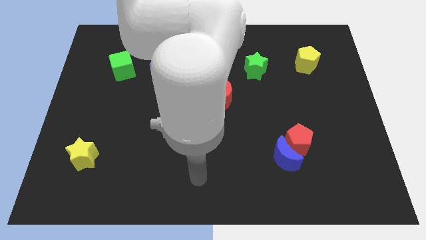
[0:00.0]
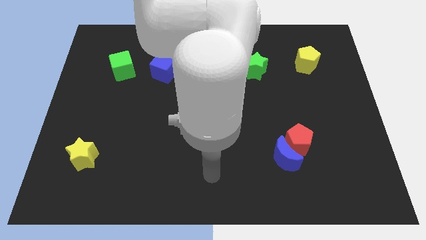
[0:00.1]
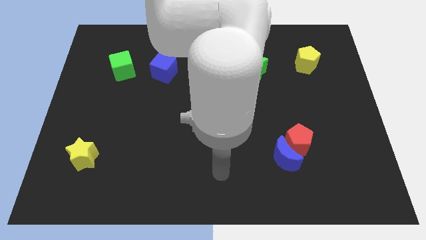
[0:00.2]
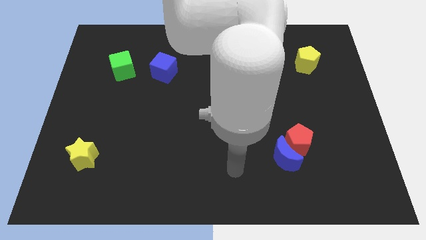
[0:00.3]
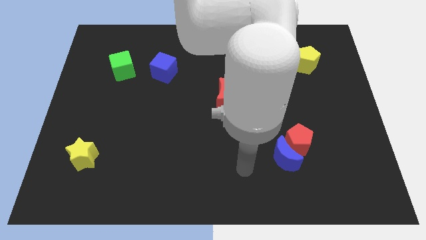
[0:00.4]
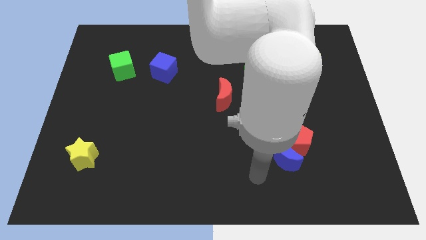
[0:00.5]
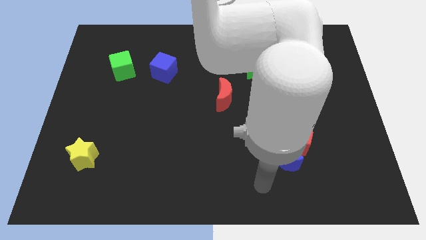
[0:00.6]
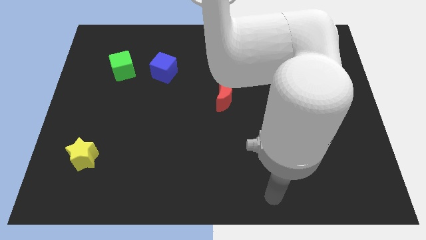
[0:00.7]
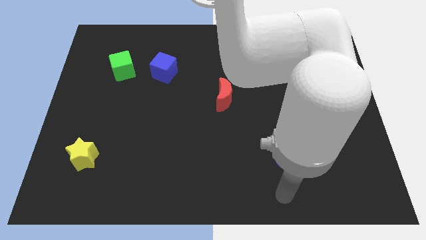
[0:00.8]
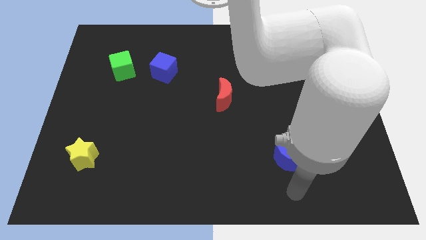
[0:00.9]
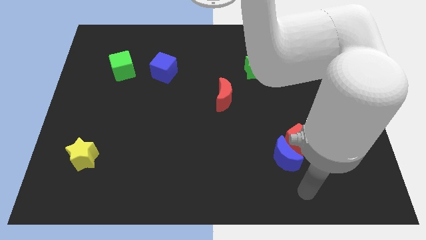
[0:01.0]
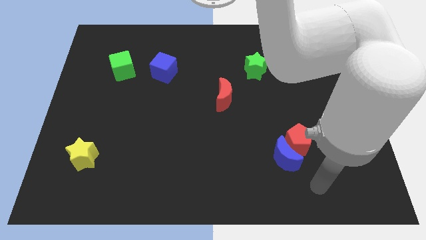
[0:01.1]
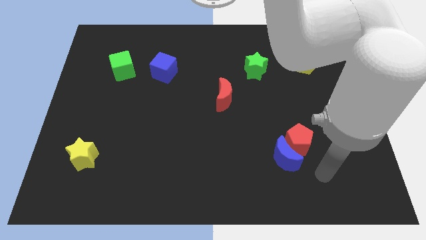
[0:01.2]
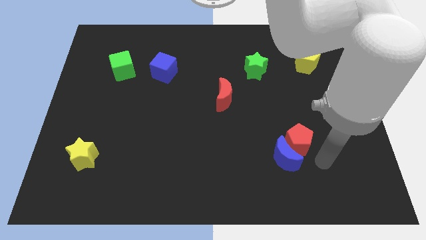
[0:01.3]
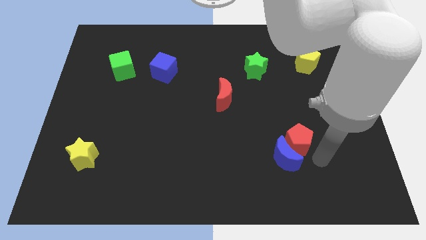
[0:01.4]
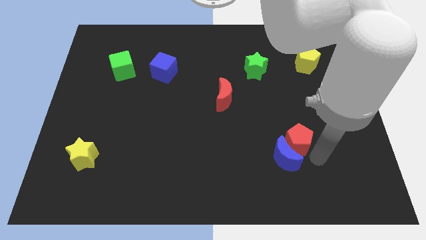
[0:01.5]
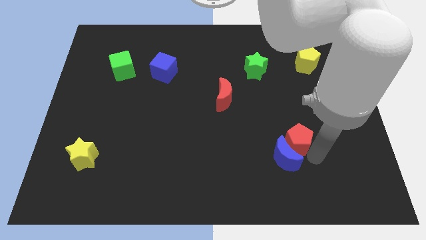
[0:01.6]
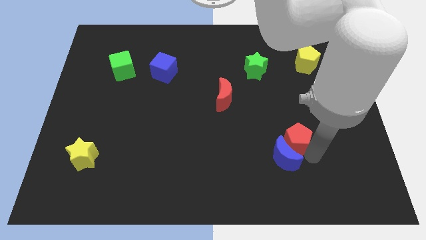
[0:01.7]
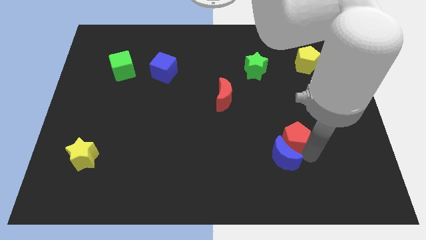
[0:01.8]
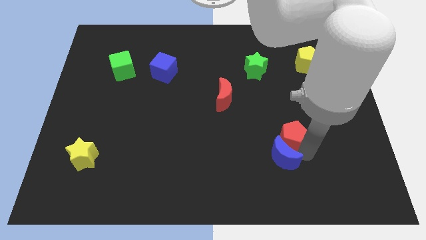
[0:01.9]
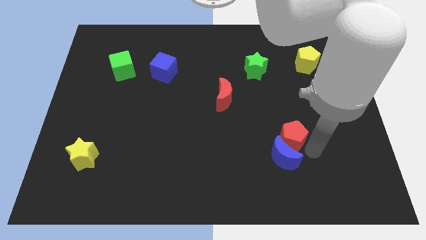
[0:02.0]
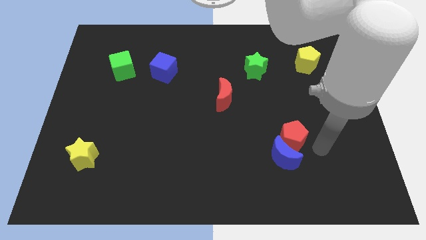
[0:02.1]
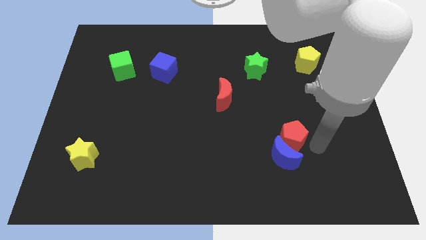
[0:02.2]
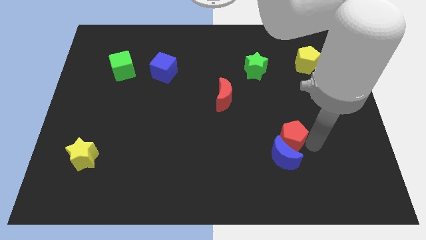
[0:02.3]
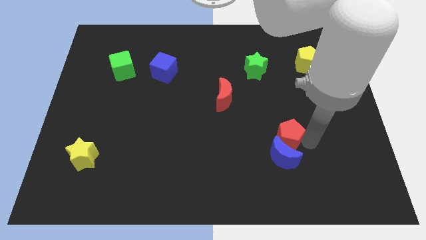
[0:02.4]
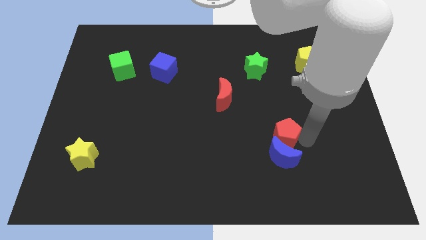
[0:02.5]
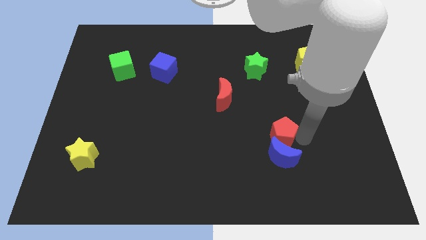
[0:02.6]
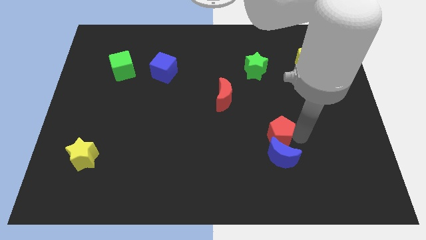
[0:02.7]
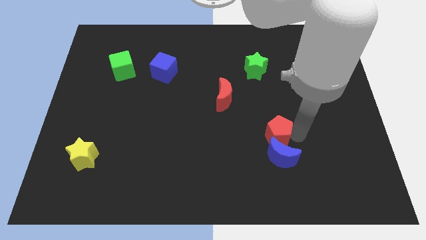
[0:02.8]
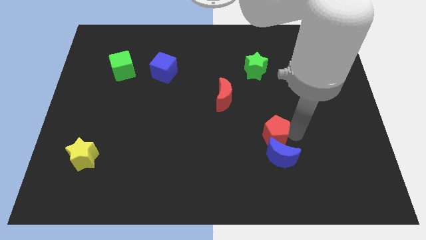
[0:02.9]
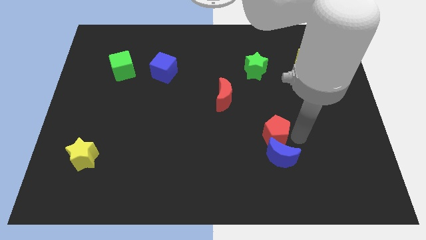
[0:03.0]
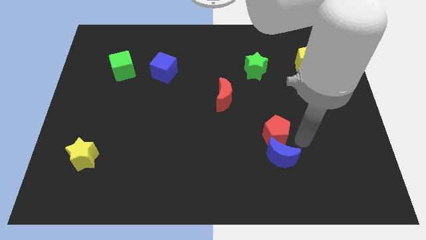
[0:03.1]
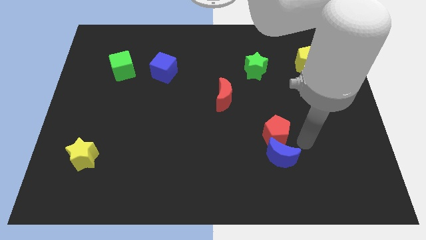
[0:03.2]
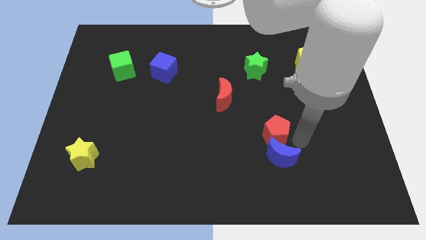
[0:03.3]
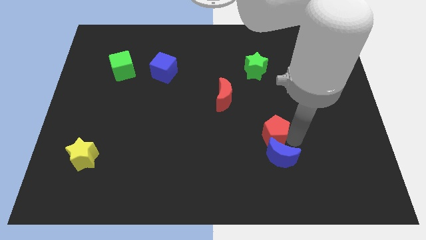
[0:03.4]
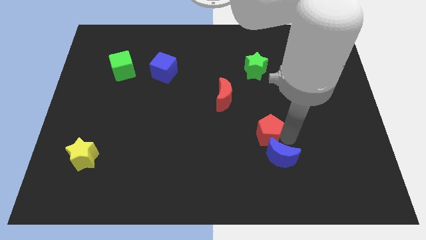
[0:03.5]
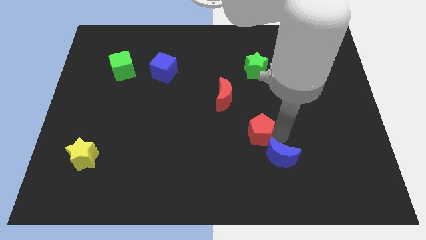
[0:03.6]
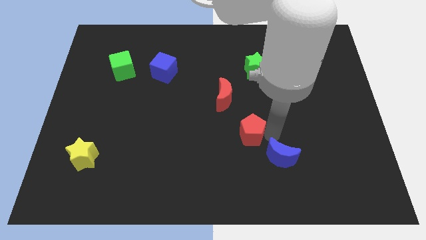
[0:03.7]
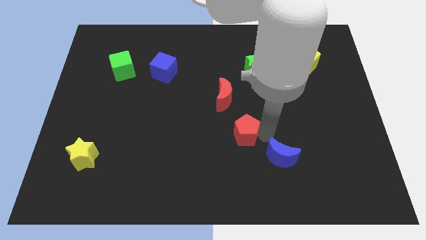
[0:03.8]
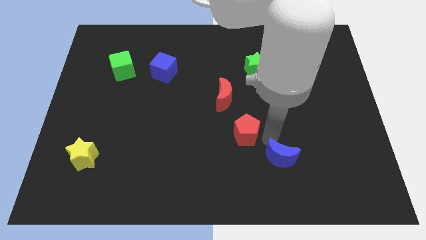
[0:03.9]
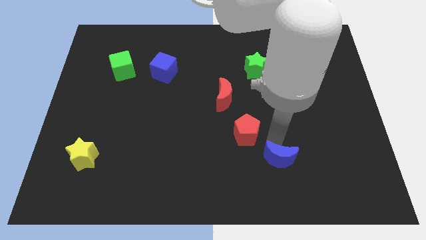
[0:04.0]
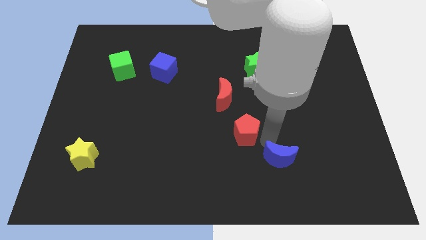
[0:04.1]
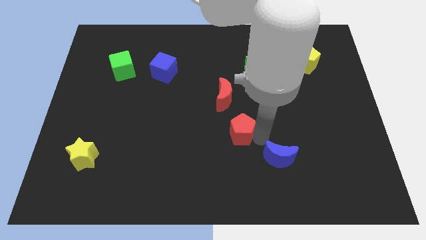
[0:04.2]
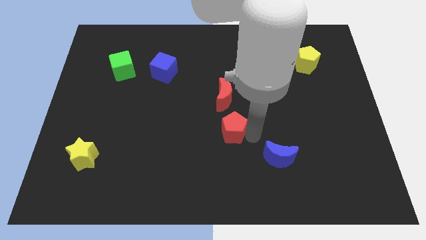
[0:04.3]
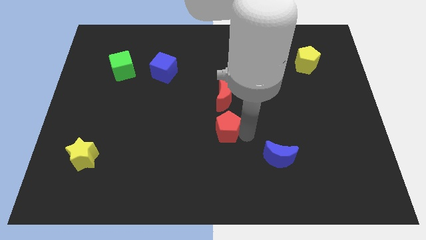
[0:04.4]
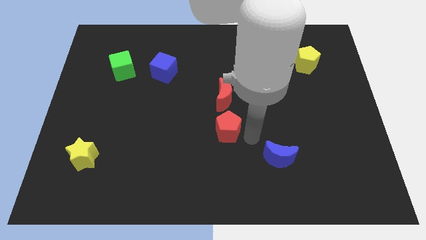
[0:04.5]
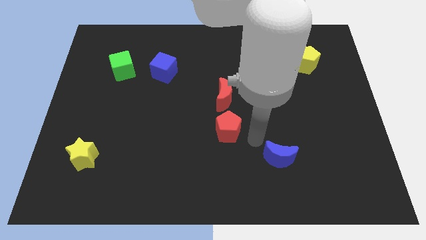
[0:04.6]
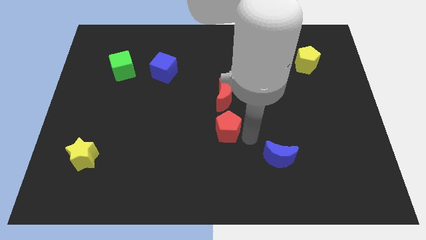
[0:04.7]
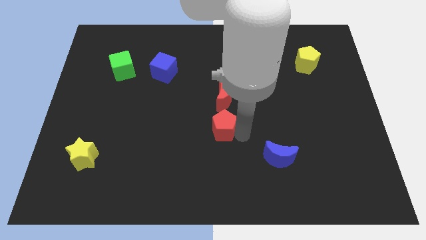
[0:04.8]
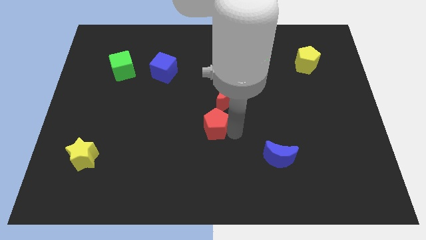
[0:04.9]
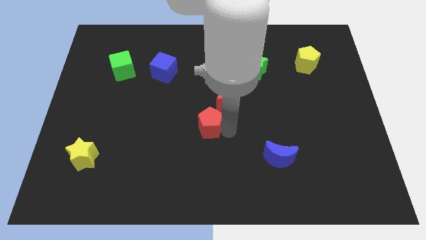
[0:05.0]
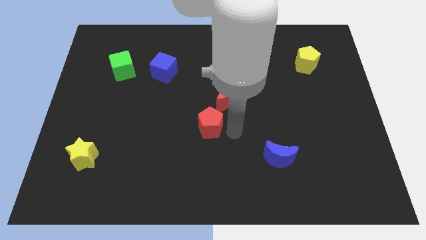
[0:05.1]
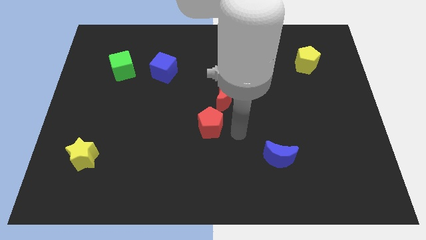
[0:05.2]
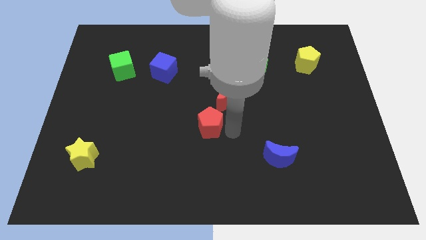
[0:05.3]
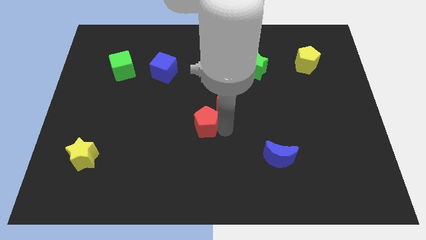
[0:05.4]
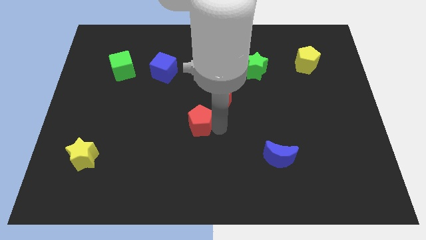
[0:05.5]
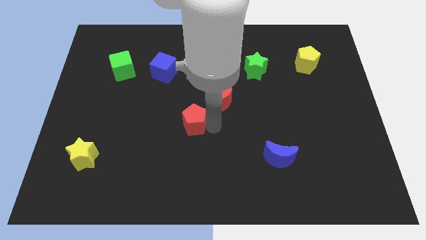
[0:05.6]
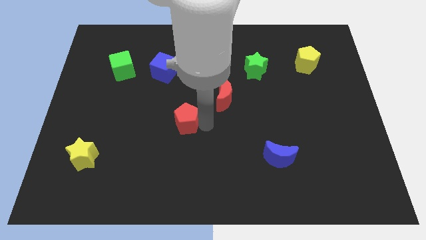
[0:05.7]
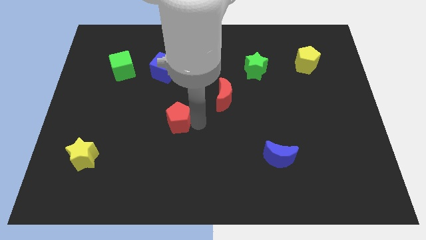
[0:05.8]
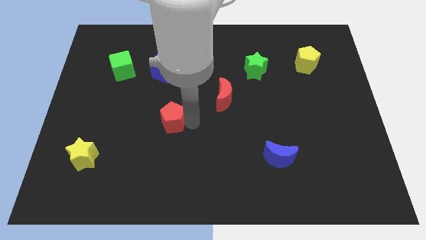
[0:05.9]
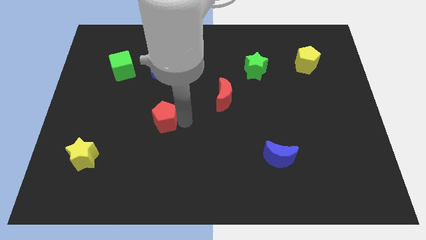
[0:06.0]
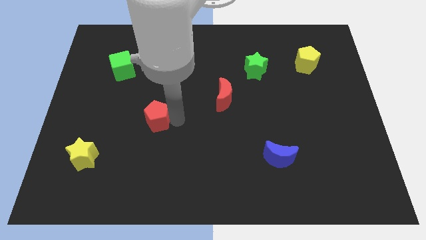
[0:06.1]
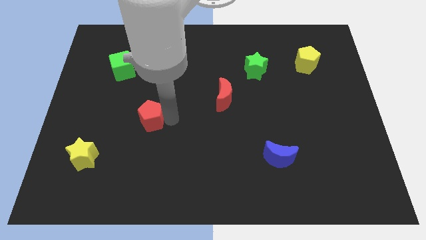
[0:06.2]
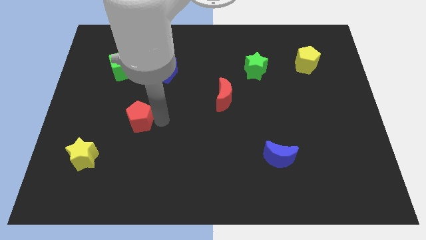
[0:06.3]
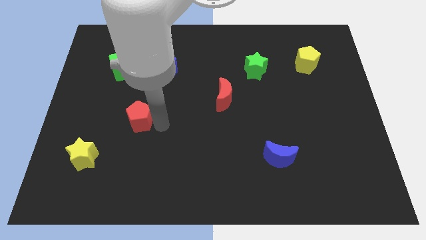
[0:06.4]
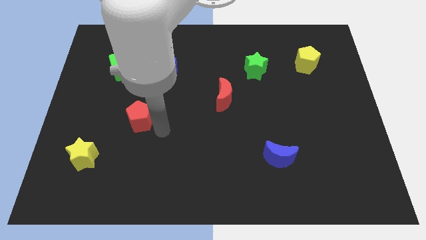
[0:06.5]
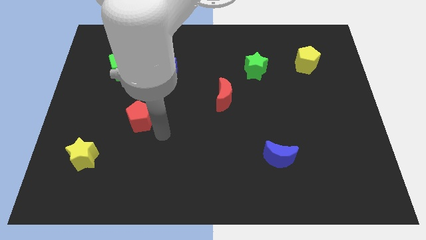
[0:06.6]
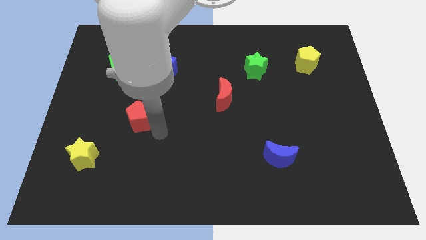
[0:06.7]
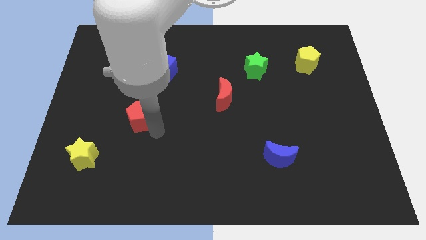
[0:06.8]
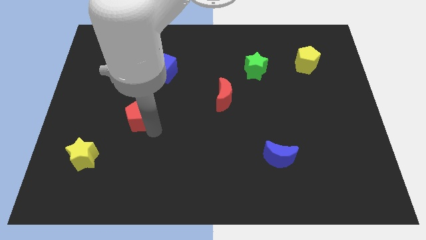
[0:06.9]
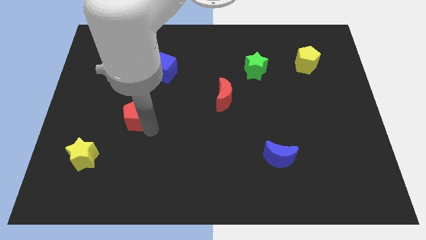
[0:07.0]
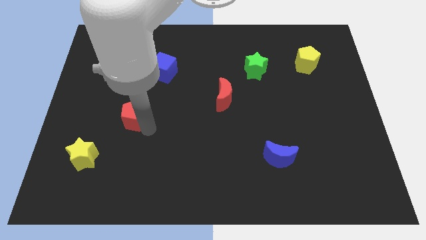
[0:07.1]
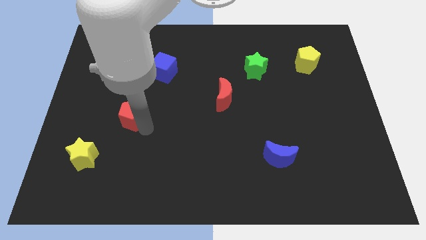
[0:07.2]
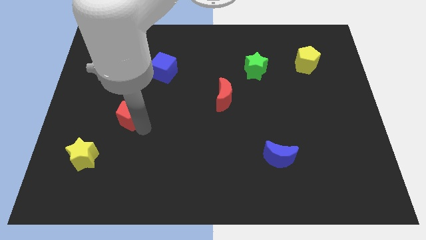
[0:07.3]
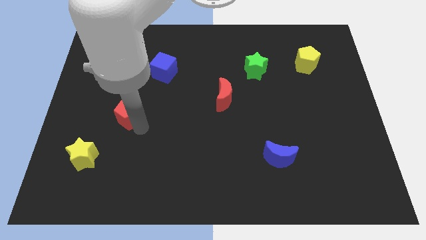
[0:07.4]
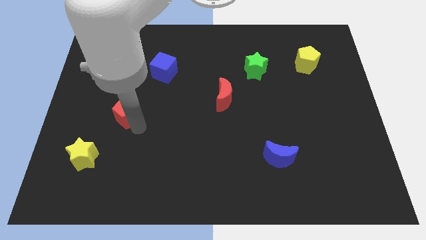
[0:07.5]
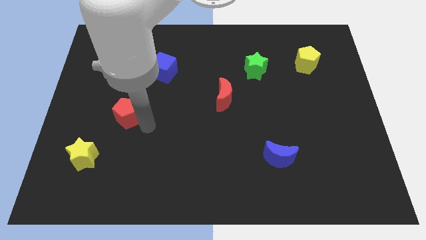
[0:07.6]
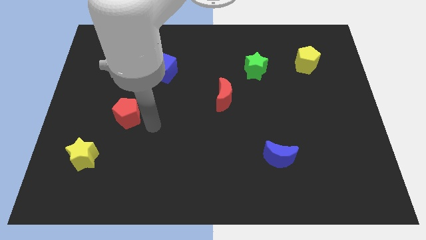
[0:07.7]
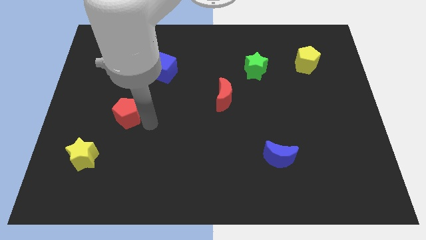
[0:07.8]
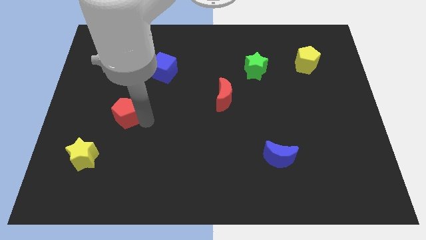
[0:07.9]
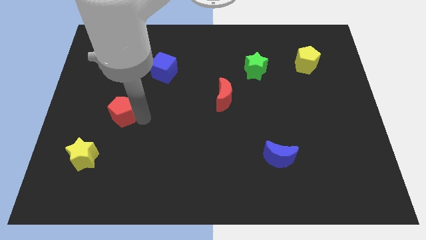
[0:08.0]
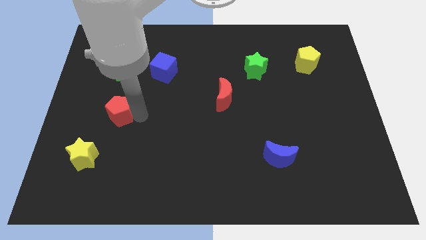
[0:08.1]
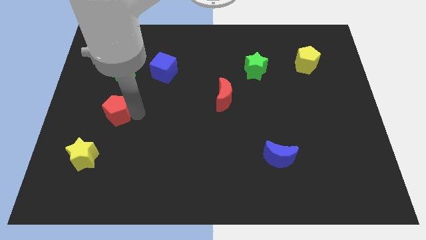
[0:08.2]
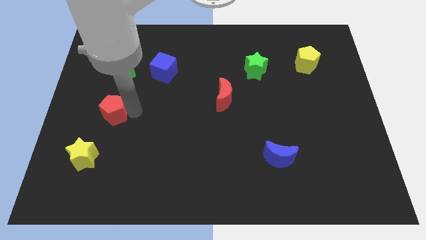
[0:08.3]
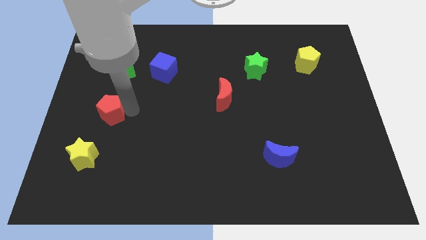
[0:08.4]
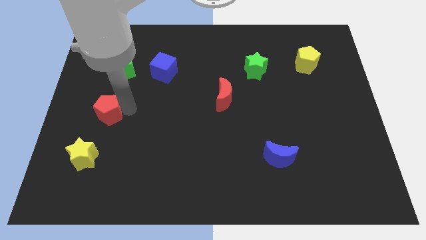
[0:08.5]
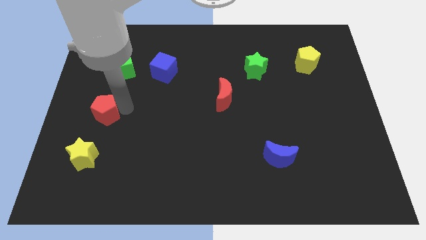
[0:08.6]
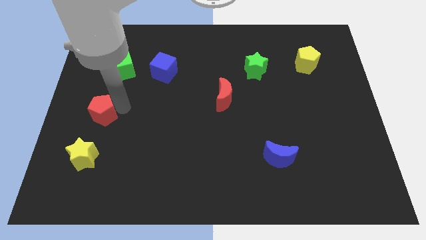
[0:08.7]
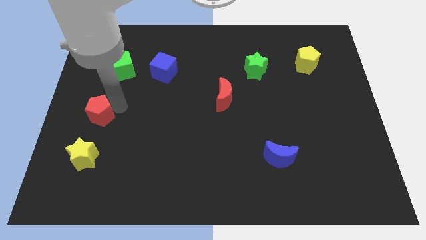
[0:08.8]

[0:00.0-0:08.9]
move the red pentagon to the left side
